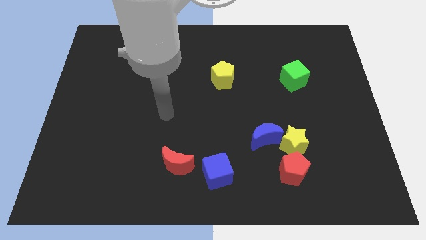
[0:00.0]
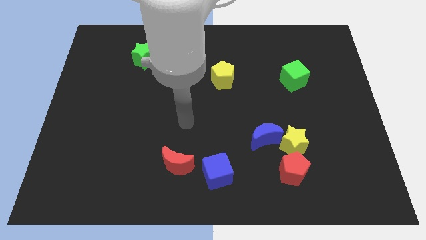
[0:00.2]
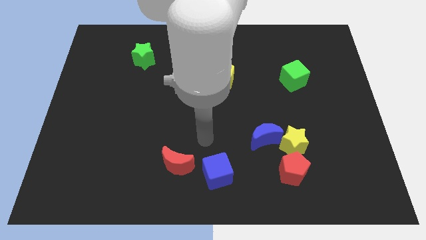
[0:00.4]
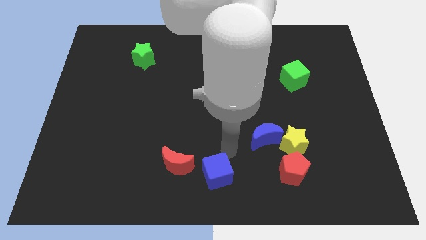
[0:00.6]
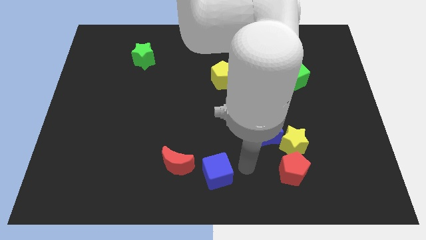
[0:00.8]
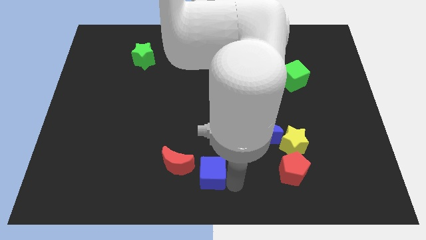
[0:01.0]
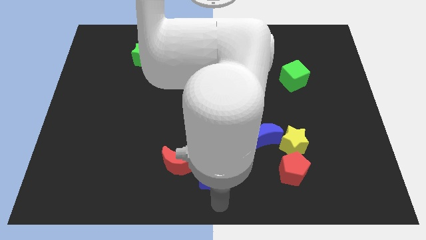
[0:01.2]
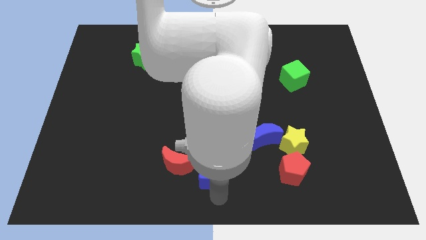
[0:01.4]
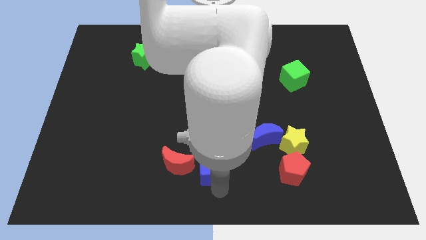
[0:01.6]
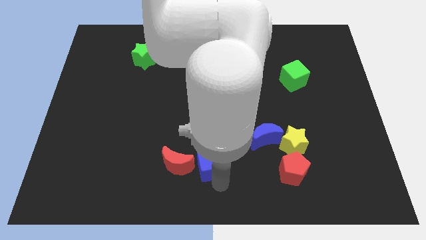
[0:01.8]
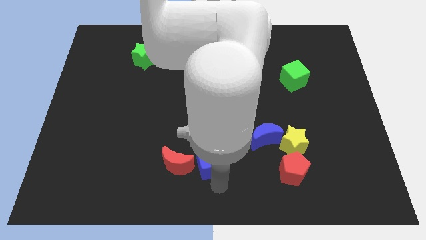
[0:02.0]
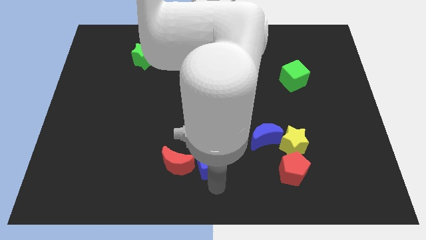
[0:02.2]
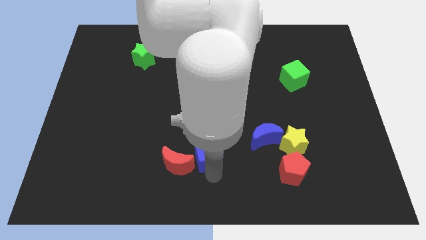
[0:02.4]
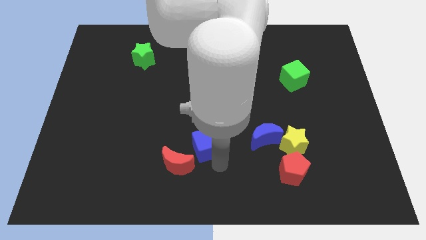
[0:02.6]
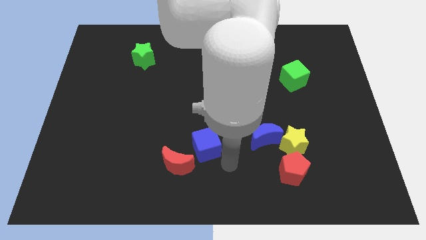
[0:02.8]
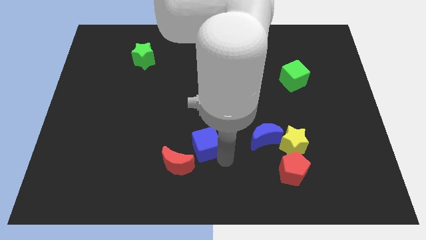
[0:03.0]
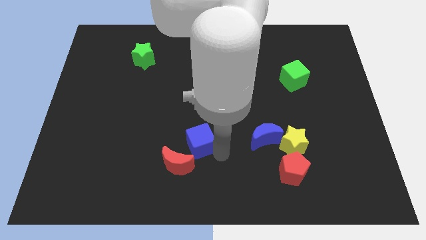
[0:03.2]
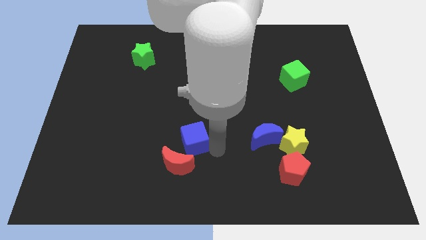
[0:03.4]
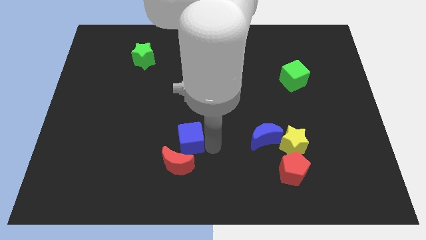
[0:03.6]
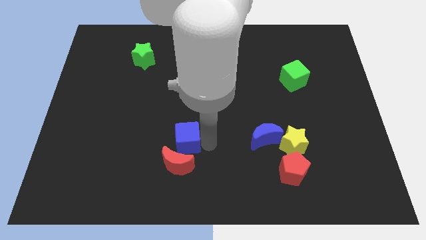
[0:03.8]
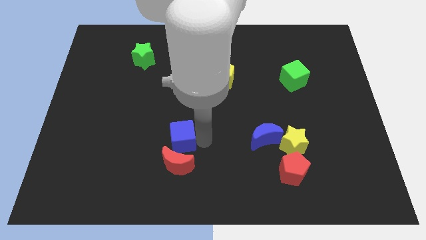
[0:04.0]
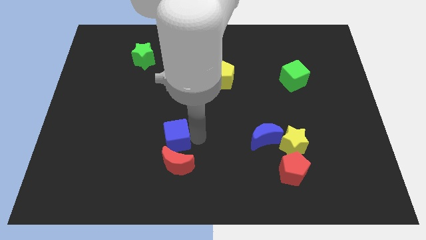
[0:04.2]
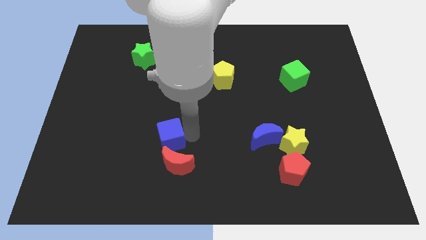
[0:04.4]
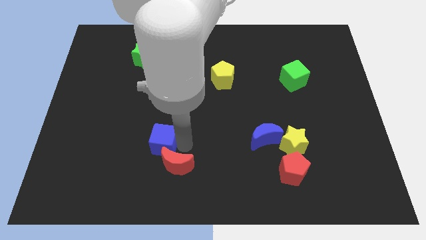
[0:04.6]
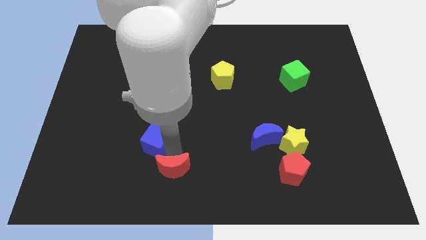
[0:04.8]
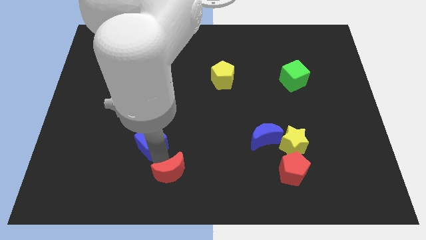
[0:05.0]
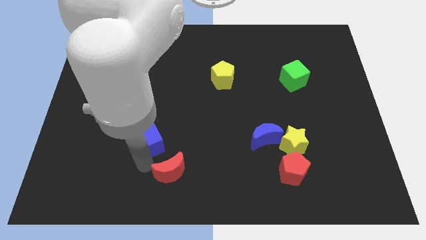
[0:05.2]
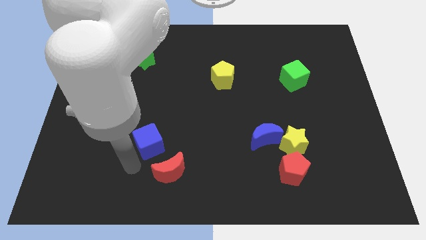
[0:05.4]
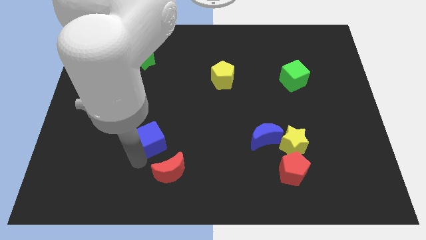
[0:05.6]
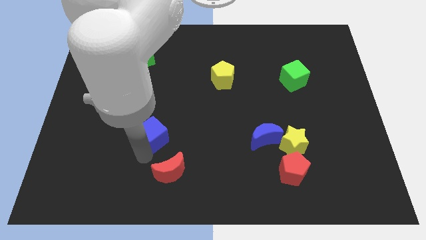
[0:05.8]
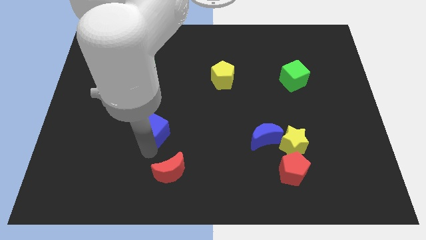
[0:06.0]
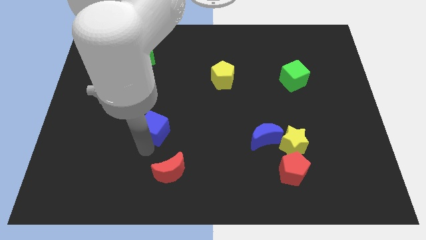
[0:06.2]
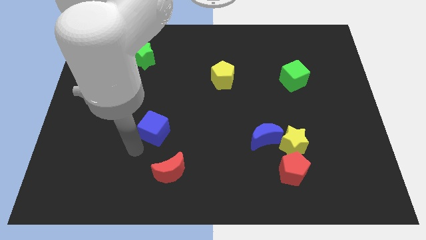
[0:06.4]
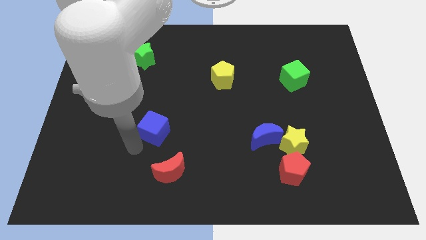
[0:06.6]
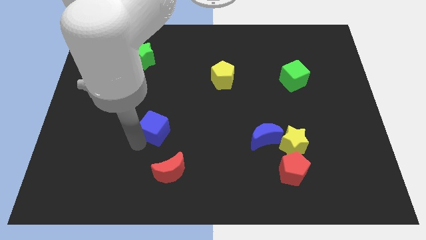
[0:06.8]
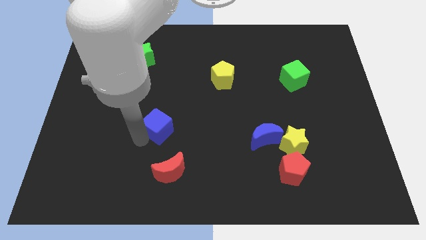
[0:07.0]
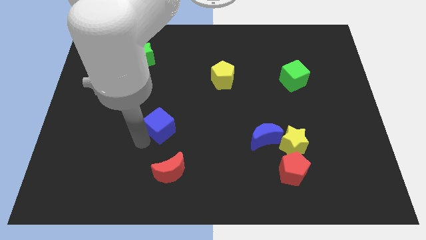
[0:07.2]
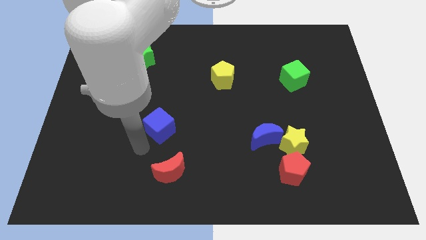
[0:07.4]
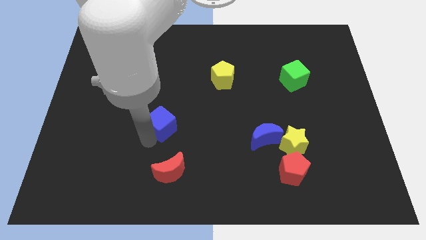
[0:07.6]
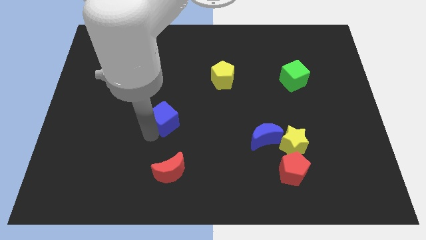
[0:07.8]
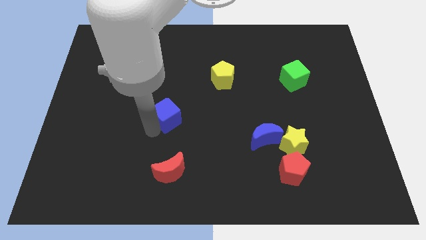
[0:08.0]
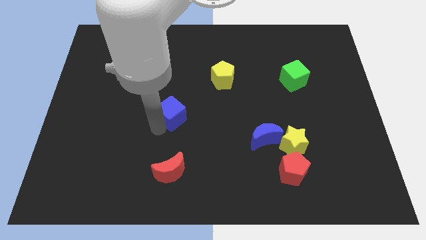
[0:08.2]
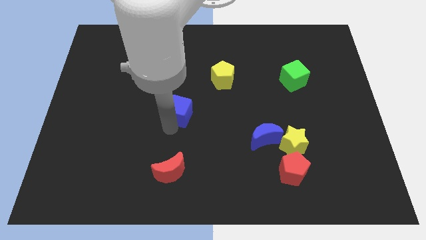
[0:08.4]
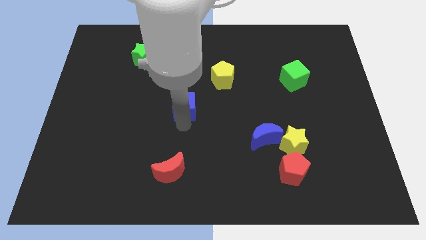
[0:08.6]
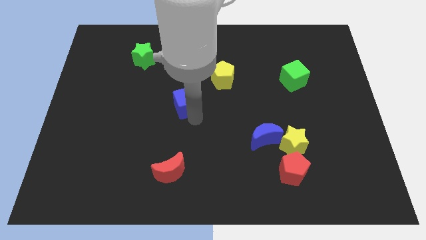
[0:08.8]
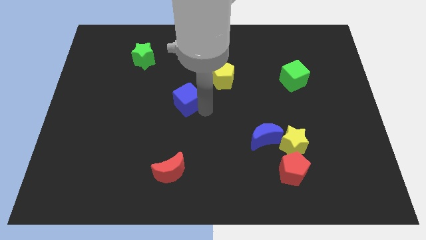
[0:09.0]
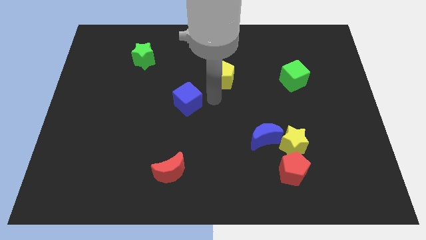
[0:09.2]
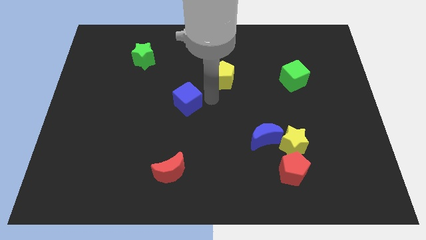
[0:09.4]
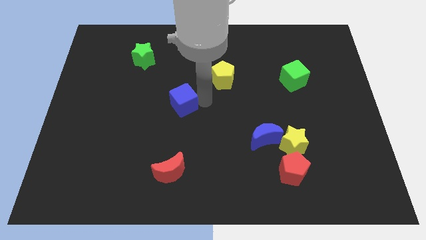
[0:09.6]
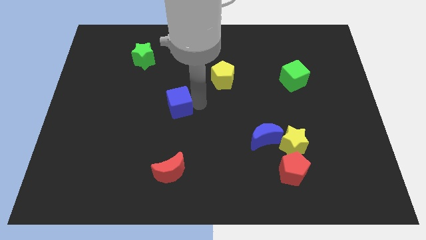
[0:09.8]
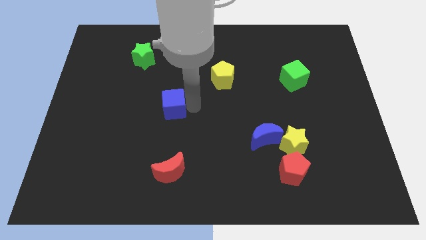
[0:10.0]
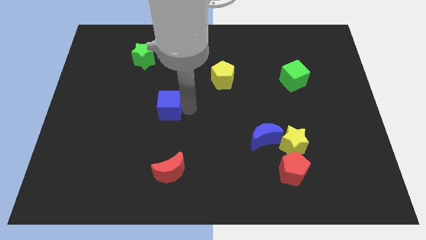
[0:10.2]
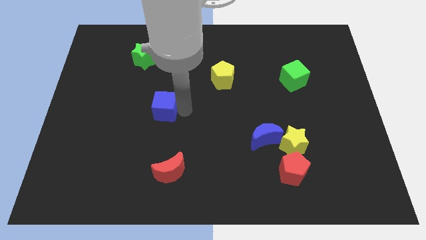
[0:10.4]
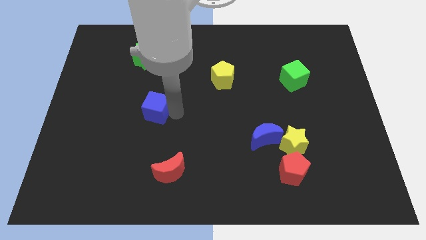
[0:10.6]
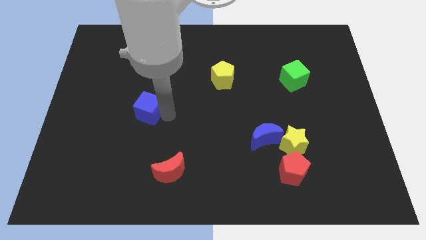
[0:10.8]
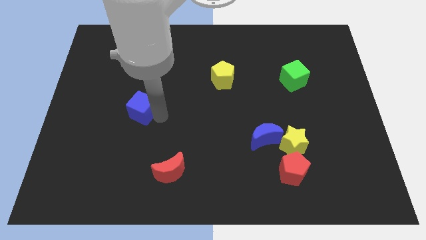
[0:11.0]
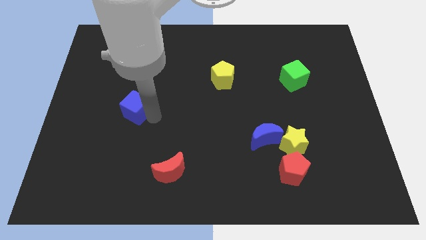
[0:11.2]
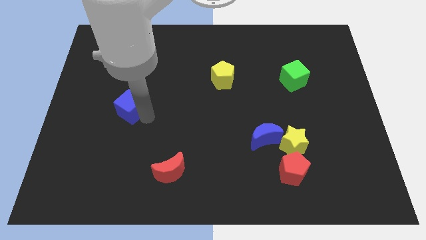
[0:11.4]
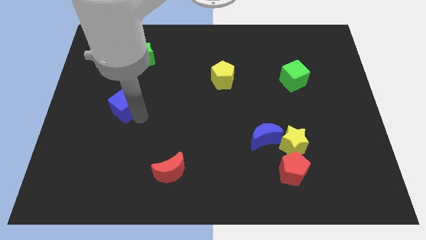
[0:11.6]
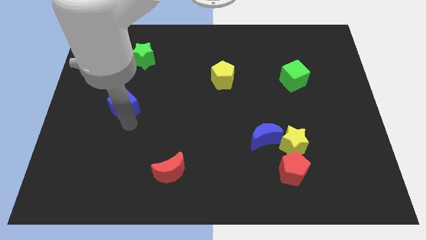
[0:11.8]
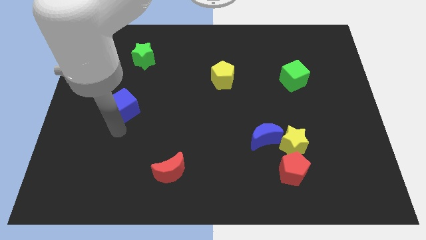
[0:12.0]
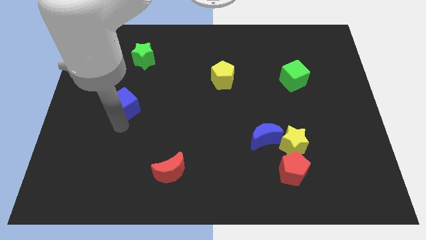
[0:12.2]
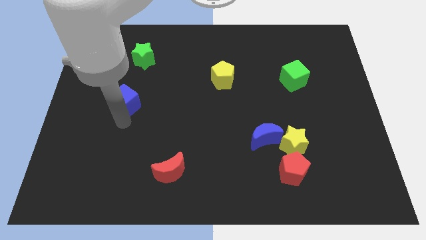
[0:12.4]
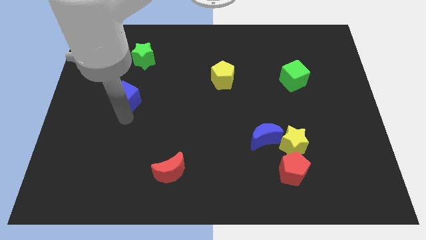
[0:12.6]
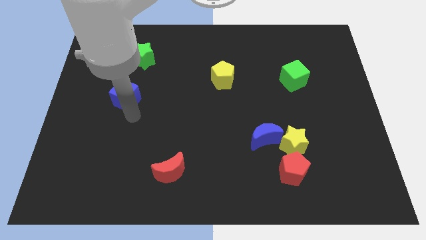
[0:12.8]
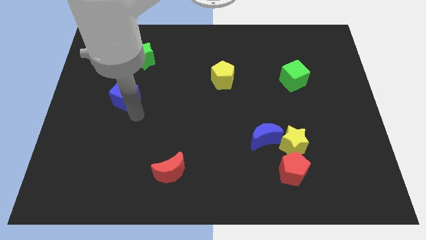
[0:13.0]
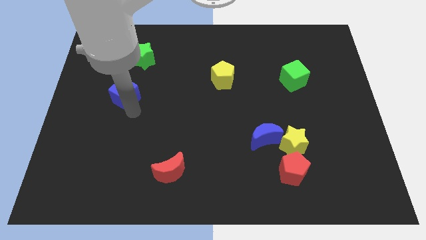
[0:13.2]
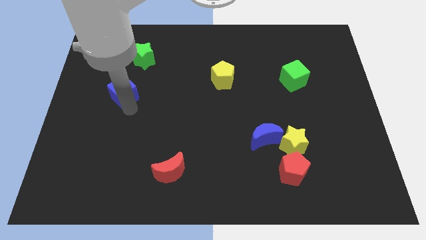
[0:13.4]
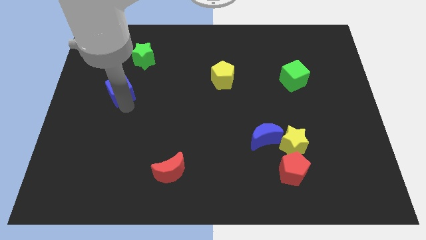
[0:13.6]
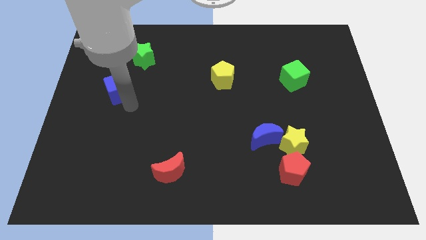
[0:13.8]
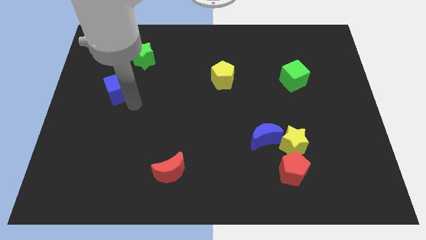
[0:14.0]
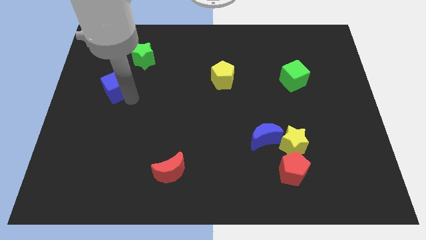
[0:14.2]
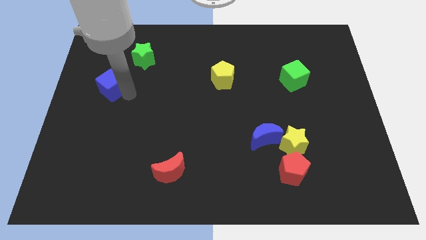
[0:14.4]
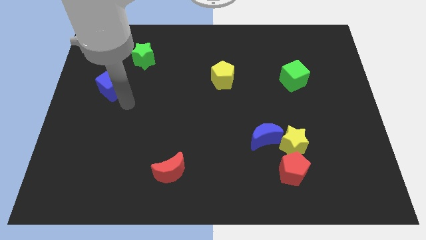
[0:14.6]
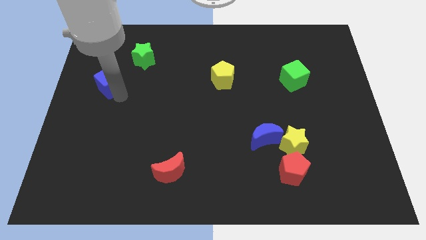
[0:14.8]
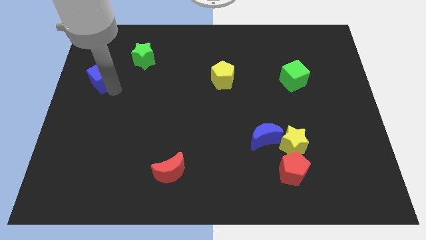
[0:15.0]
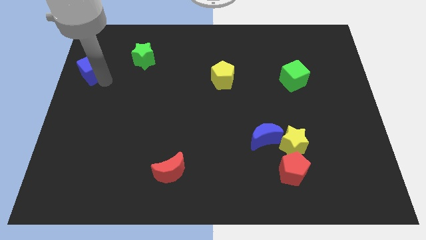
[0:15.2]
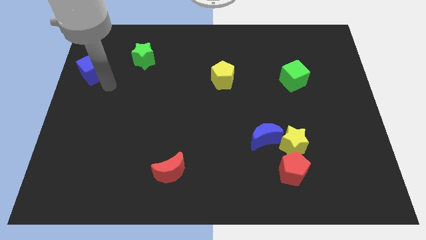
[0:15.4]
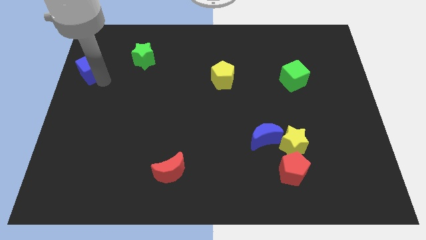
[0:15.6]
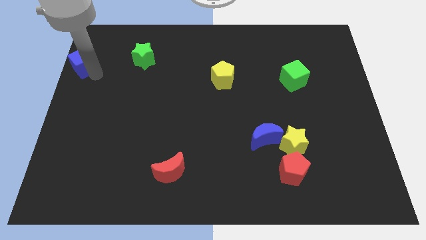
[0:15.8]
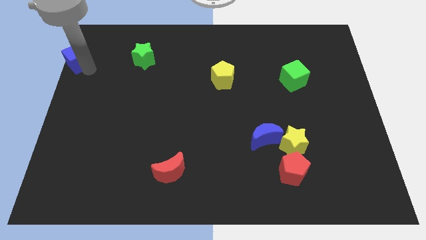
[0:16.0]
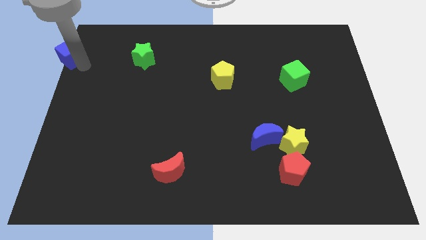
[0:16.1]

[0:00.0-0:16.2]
move the blue cube to the top left corner
